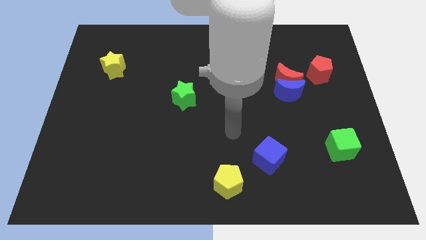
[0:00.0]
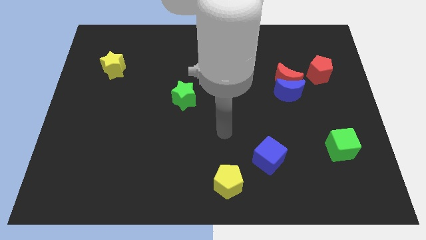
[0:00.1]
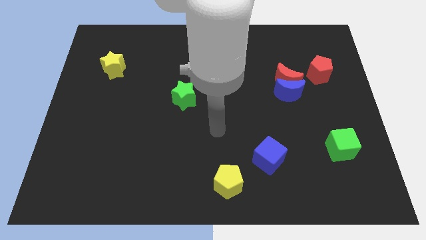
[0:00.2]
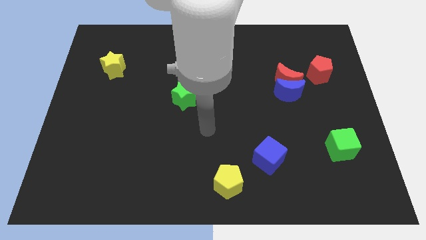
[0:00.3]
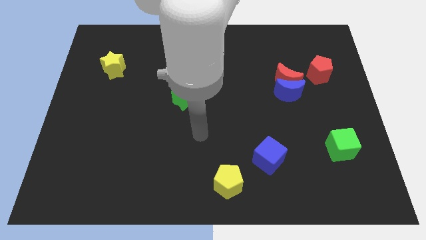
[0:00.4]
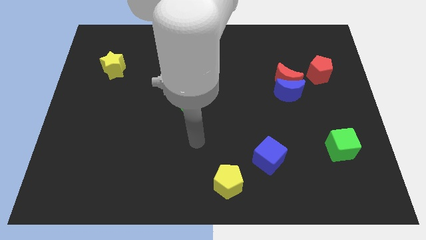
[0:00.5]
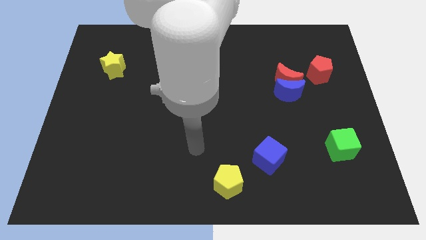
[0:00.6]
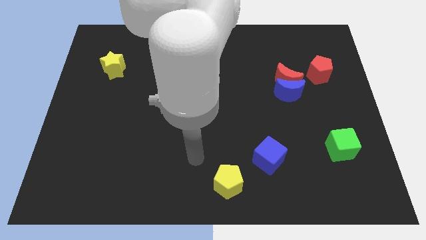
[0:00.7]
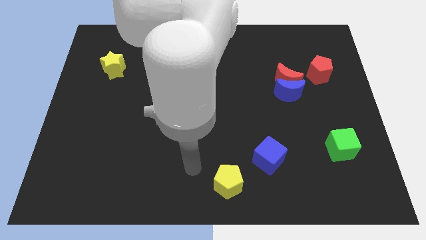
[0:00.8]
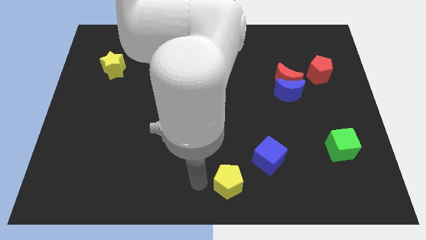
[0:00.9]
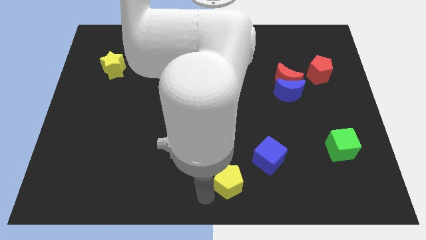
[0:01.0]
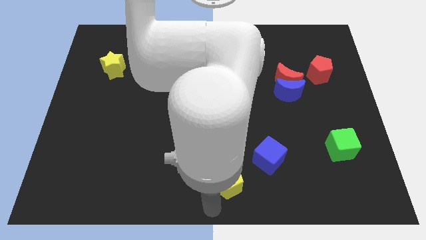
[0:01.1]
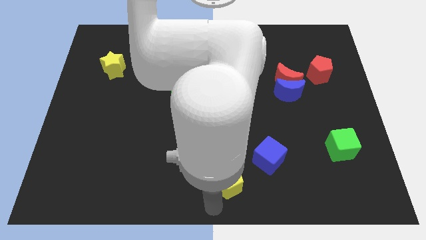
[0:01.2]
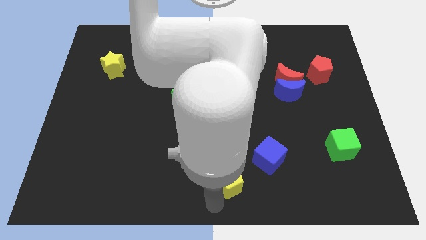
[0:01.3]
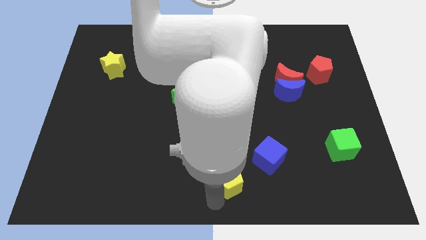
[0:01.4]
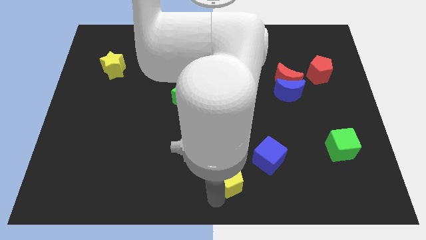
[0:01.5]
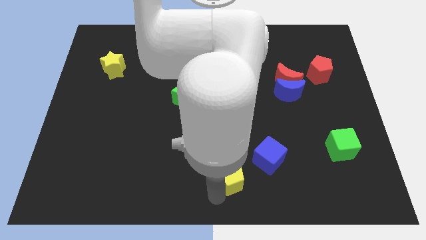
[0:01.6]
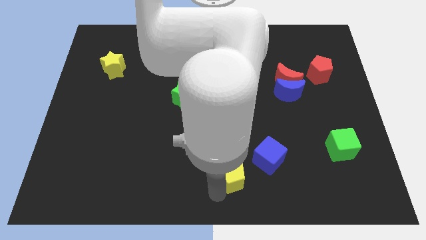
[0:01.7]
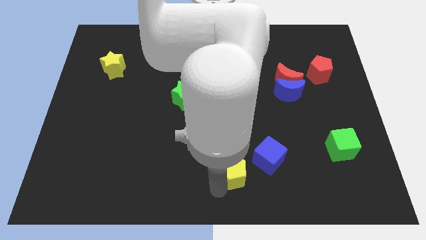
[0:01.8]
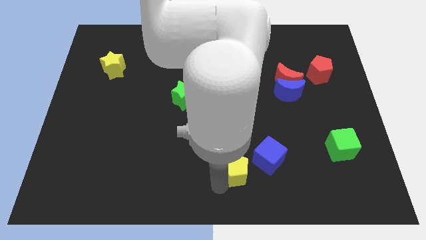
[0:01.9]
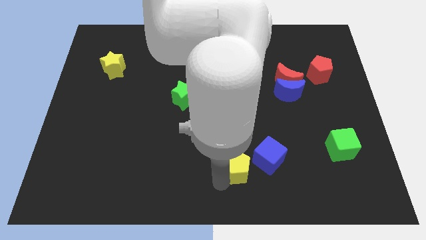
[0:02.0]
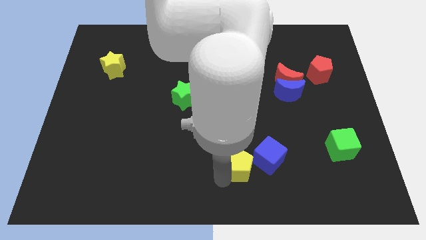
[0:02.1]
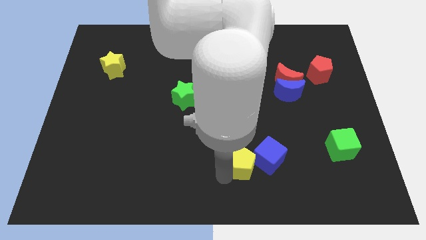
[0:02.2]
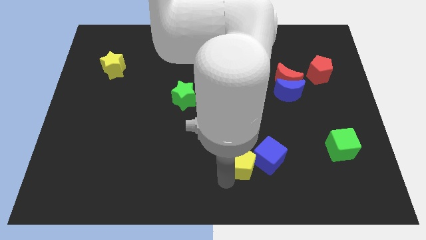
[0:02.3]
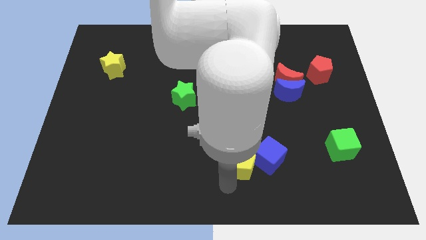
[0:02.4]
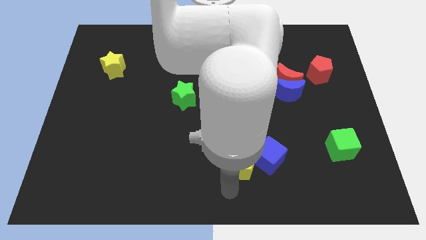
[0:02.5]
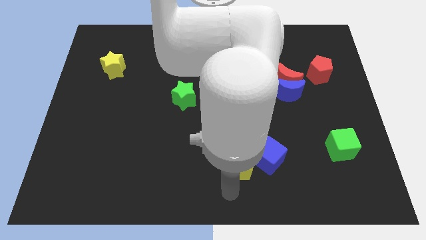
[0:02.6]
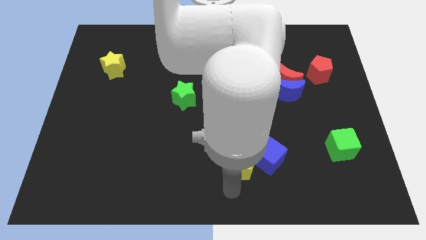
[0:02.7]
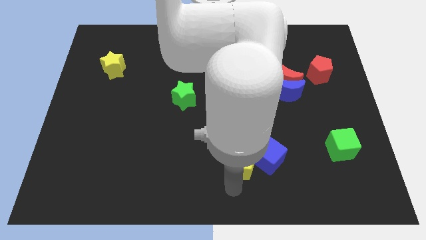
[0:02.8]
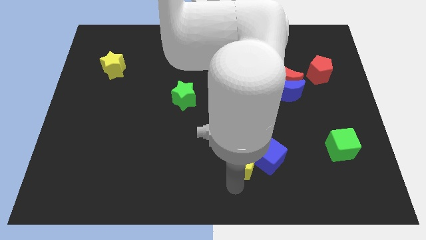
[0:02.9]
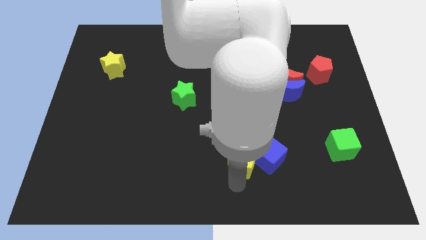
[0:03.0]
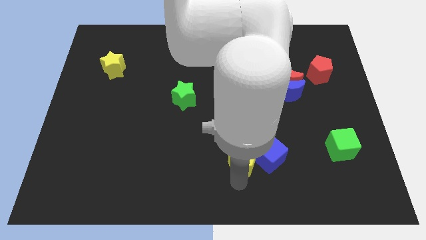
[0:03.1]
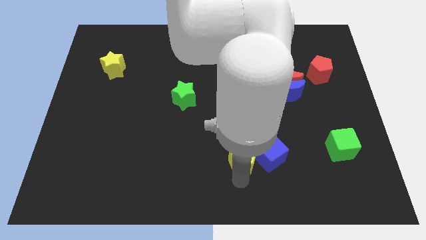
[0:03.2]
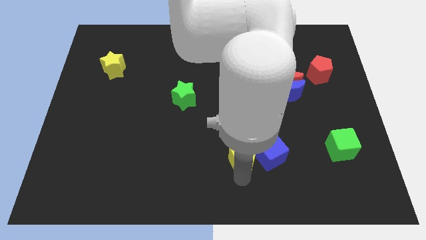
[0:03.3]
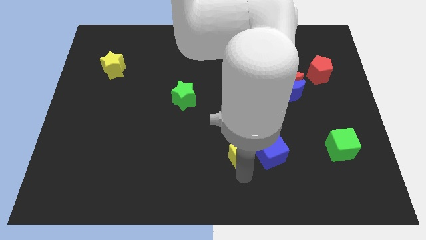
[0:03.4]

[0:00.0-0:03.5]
push the yellow pentagon a bit diagonally up and right

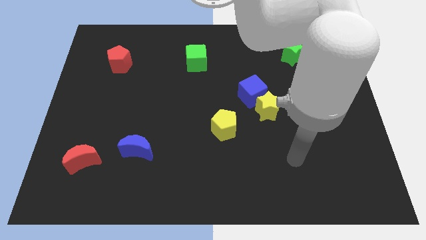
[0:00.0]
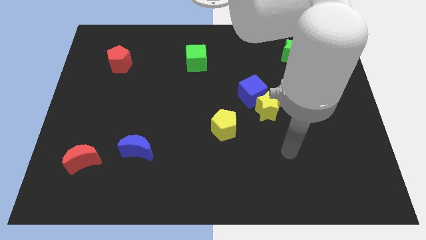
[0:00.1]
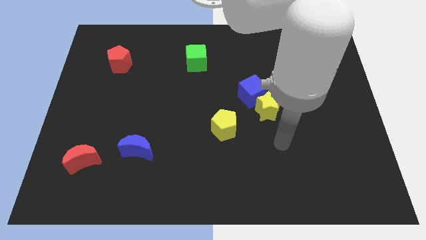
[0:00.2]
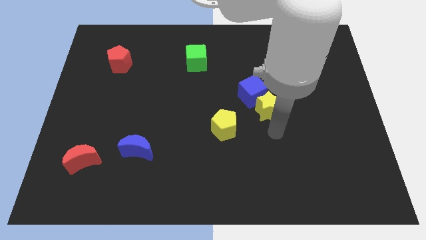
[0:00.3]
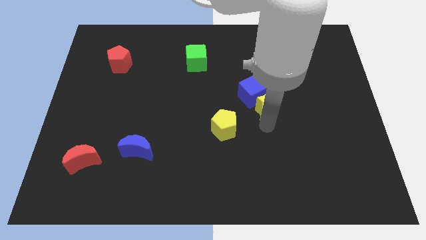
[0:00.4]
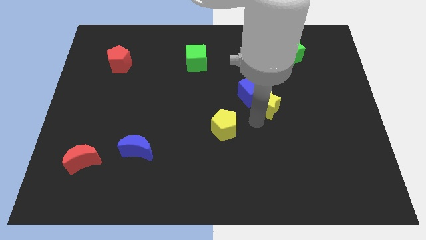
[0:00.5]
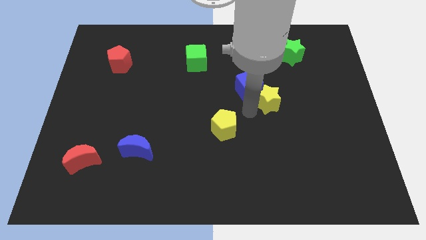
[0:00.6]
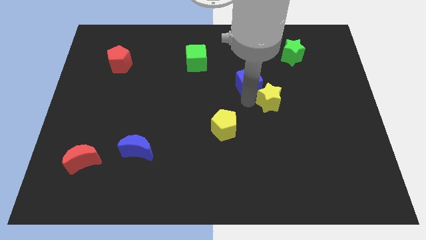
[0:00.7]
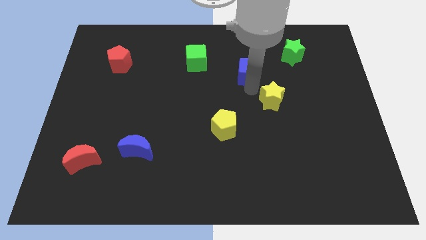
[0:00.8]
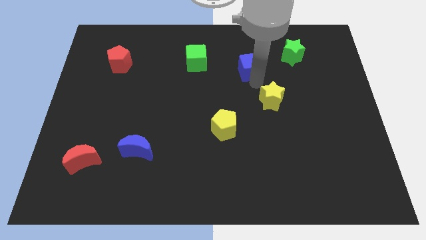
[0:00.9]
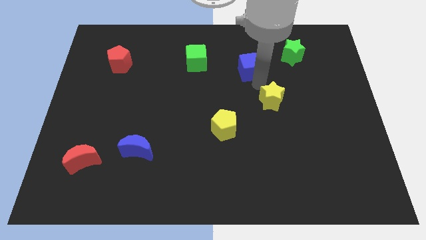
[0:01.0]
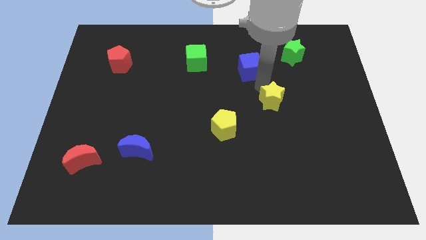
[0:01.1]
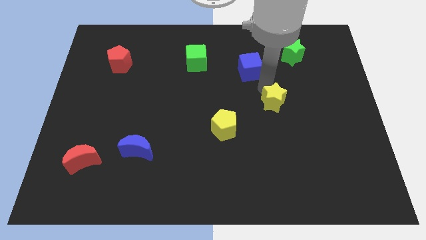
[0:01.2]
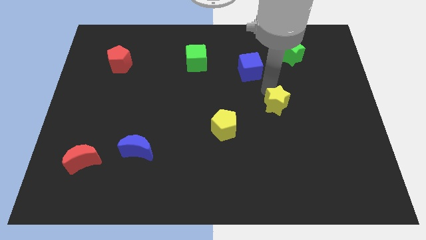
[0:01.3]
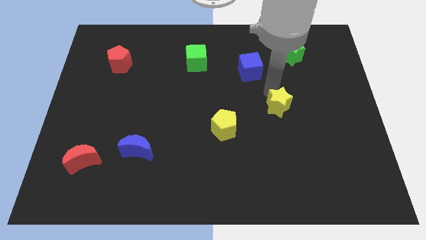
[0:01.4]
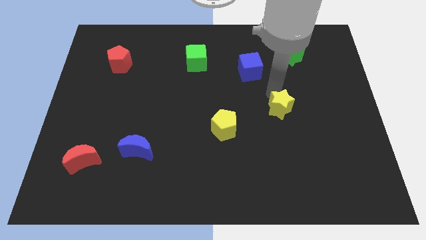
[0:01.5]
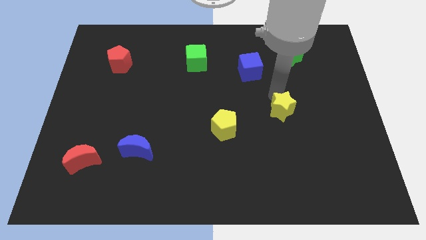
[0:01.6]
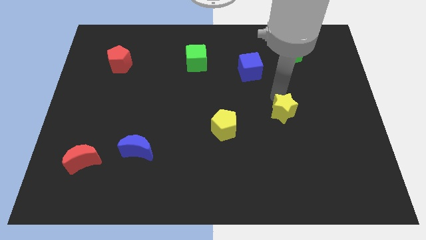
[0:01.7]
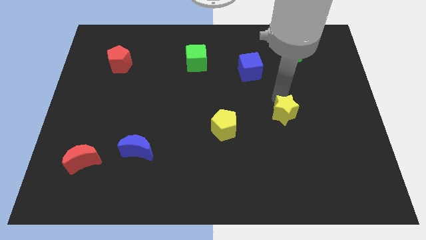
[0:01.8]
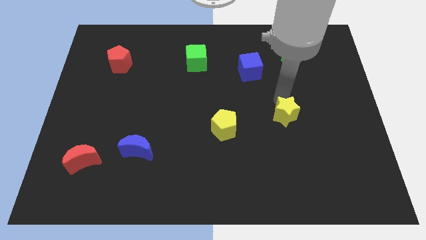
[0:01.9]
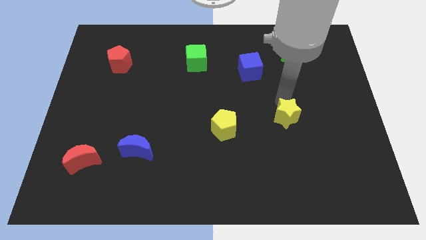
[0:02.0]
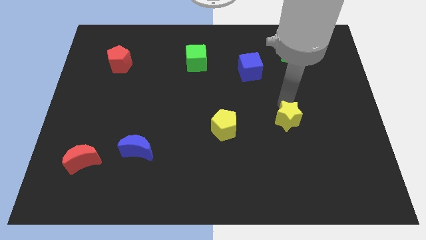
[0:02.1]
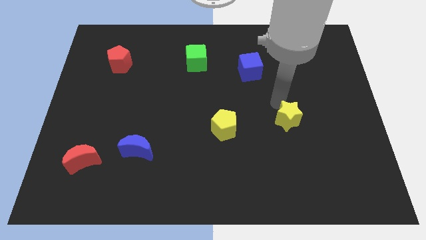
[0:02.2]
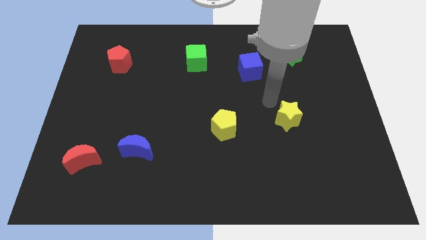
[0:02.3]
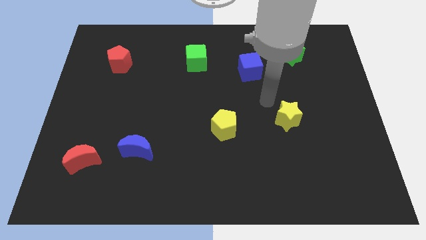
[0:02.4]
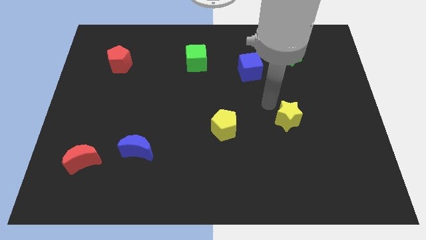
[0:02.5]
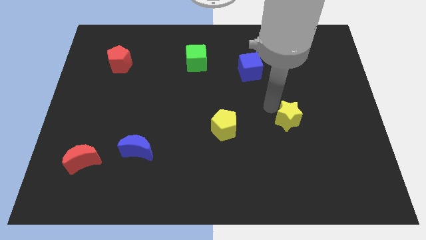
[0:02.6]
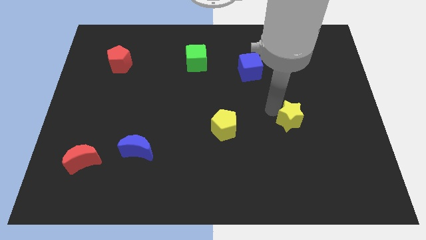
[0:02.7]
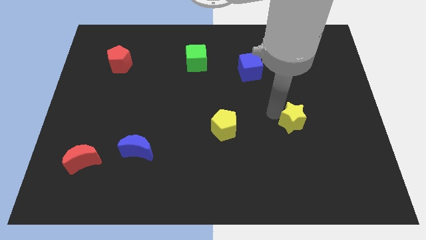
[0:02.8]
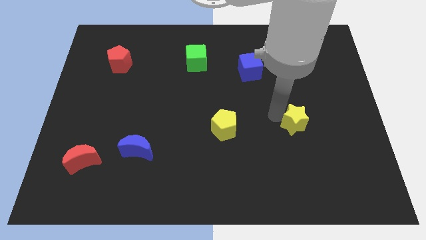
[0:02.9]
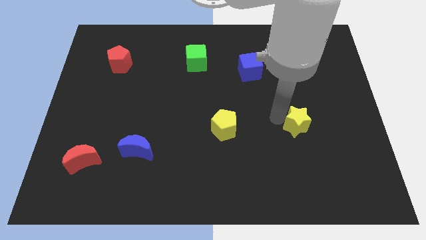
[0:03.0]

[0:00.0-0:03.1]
slightly move the yellow star diagonally downwards and to the right

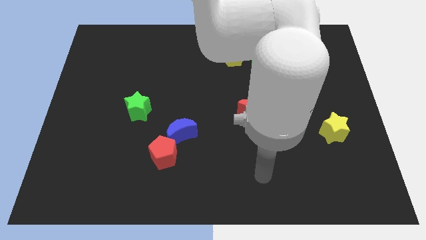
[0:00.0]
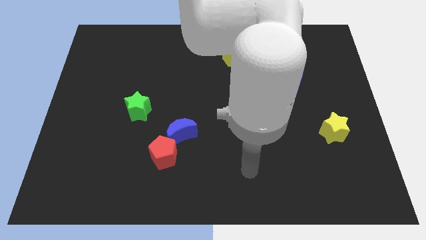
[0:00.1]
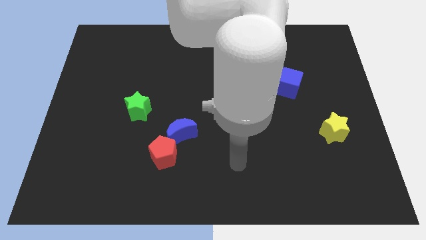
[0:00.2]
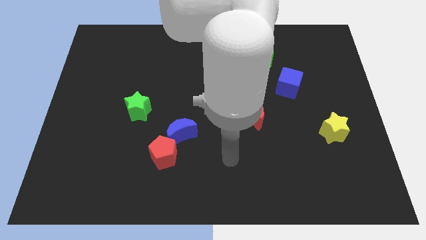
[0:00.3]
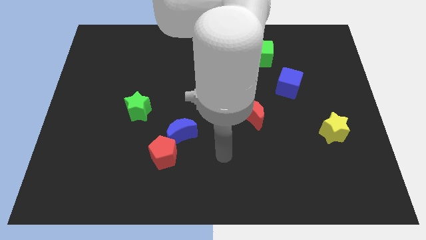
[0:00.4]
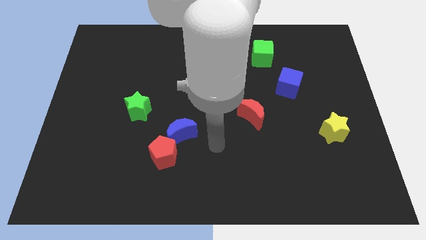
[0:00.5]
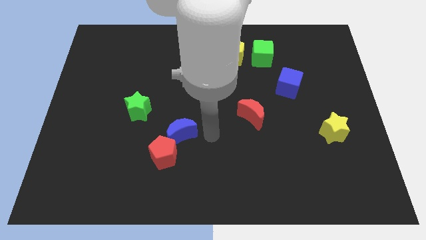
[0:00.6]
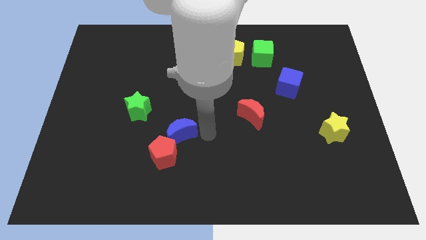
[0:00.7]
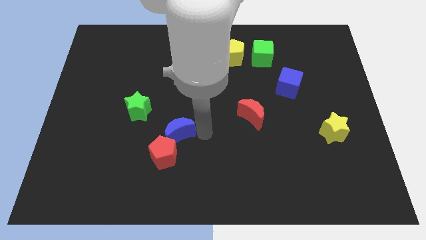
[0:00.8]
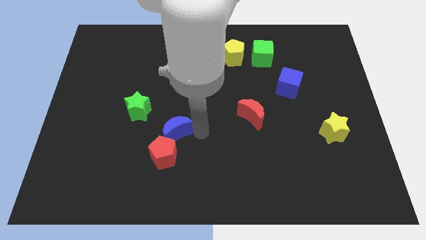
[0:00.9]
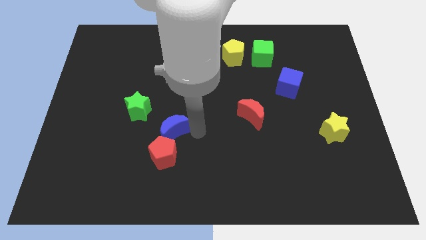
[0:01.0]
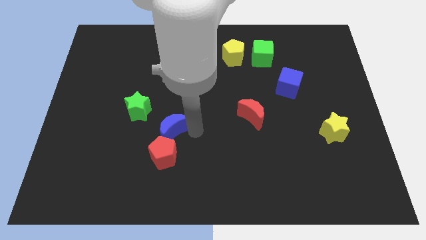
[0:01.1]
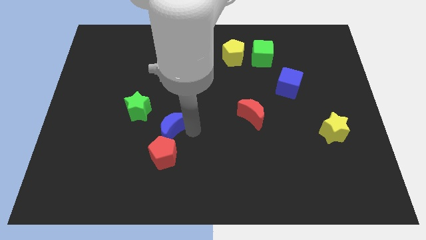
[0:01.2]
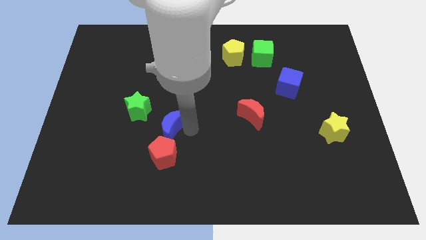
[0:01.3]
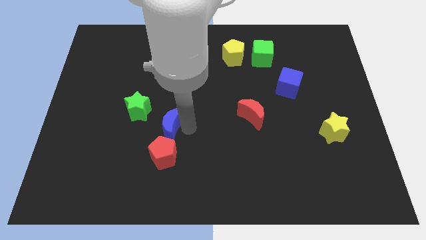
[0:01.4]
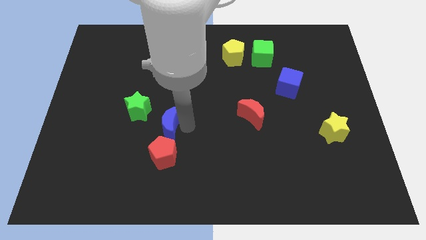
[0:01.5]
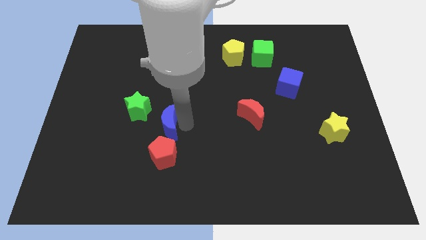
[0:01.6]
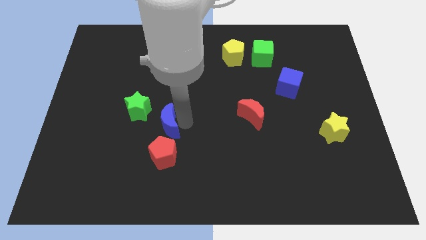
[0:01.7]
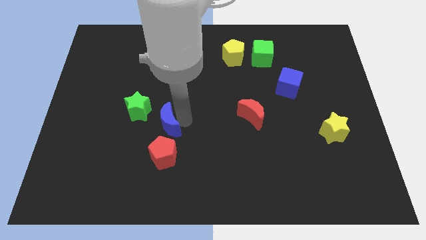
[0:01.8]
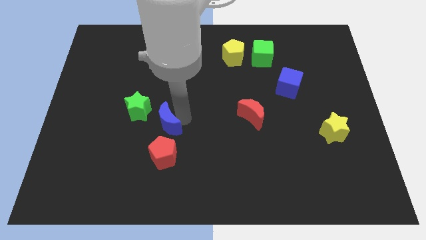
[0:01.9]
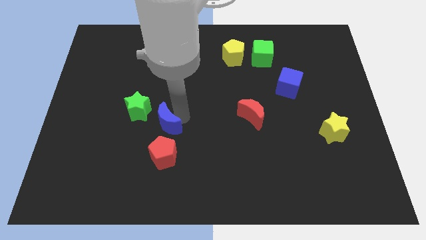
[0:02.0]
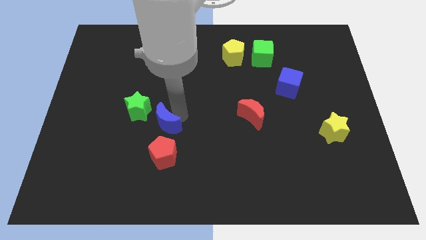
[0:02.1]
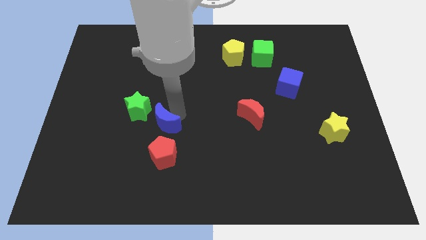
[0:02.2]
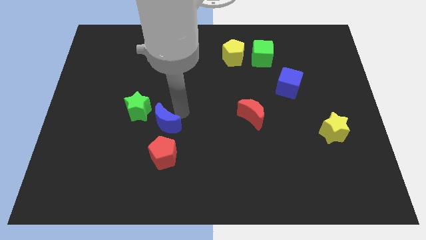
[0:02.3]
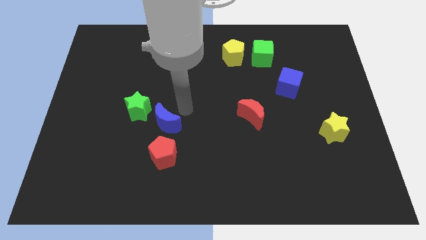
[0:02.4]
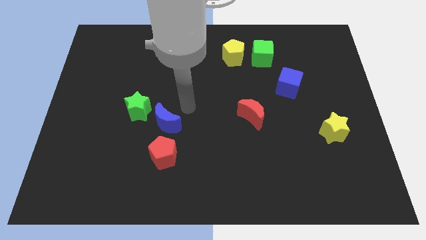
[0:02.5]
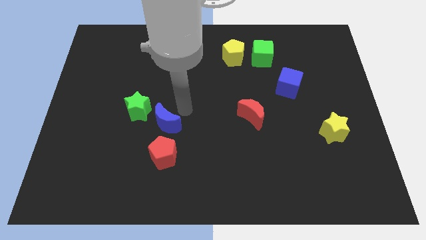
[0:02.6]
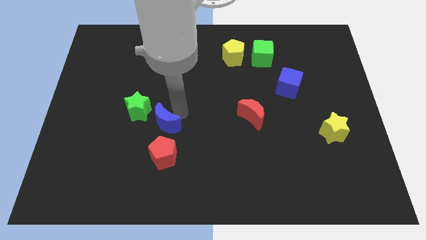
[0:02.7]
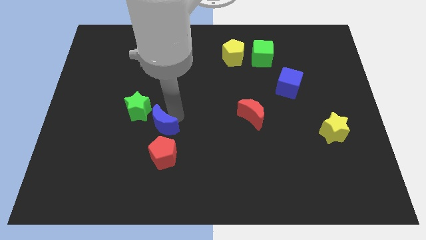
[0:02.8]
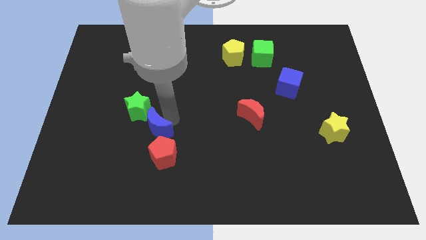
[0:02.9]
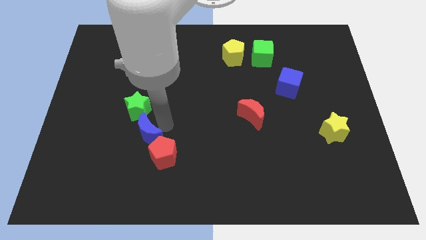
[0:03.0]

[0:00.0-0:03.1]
slightly slide the blue moon to the left
